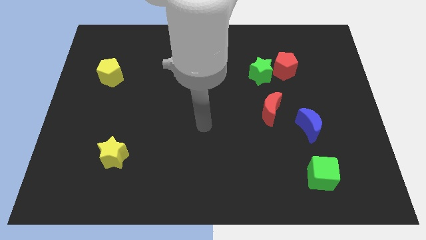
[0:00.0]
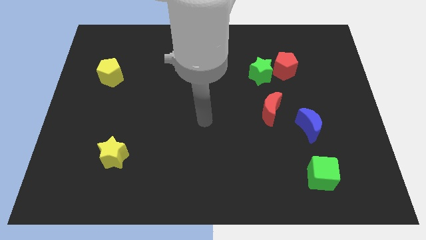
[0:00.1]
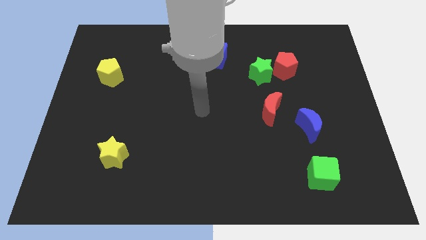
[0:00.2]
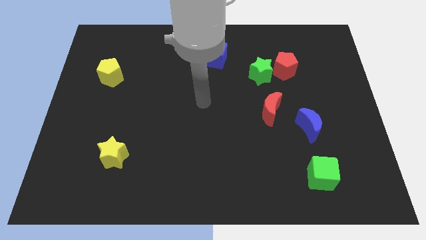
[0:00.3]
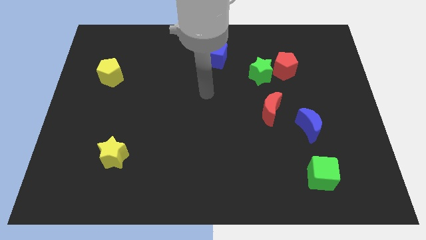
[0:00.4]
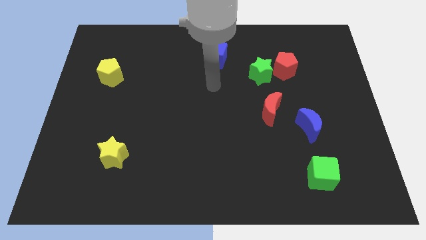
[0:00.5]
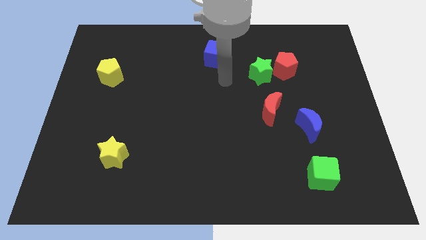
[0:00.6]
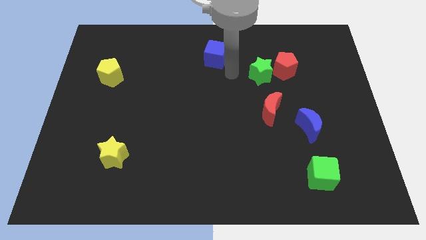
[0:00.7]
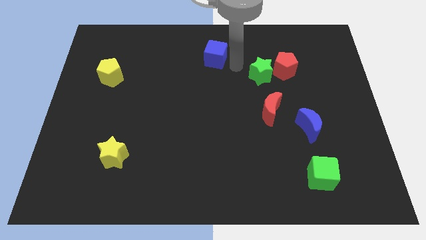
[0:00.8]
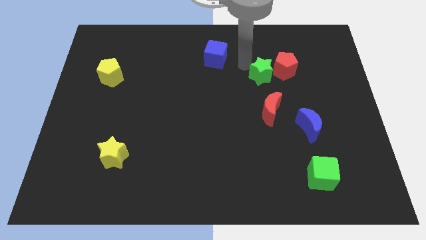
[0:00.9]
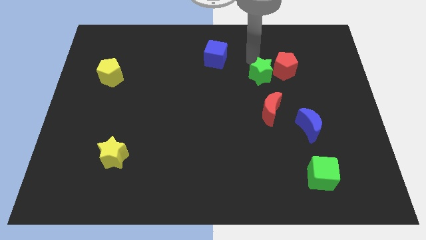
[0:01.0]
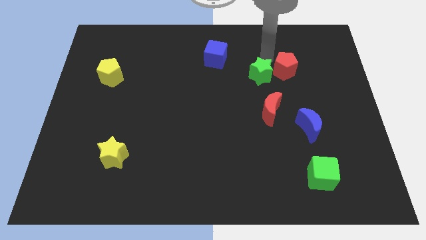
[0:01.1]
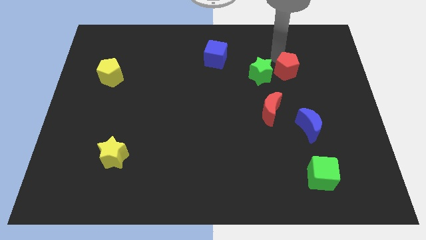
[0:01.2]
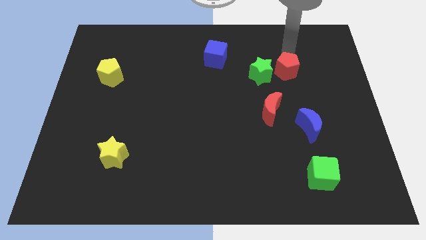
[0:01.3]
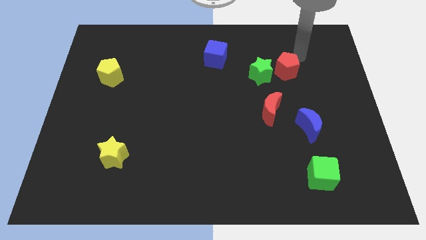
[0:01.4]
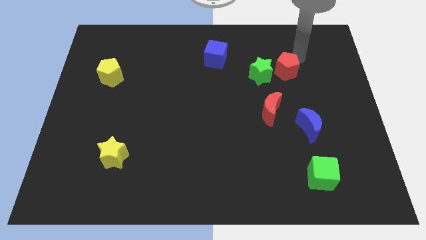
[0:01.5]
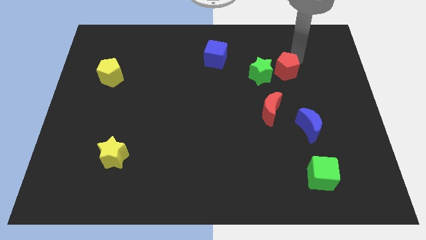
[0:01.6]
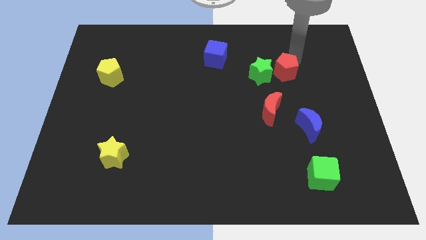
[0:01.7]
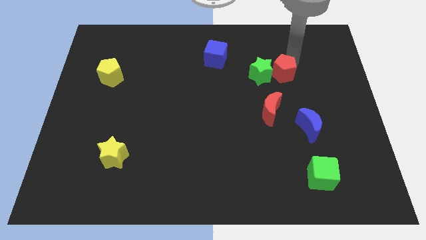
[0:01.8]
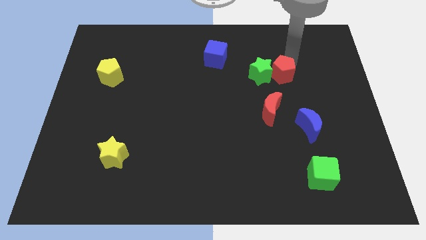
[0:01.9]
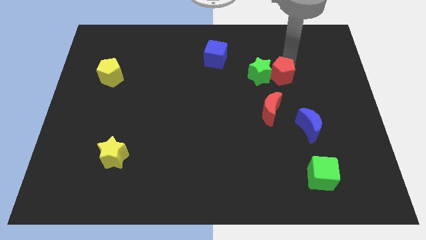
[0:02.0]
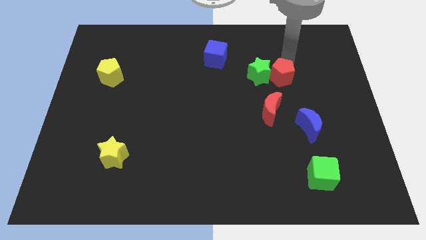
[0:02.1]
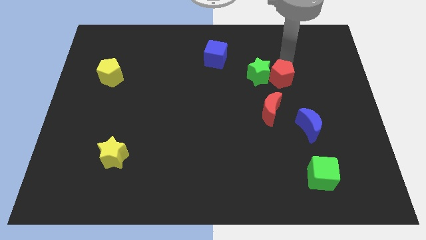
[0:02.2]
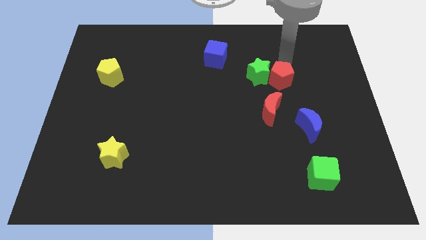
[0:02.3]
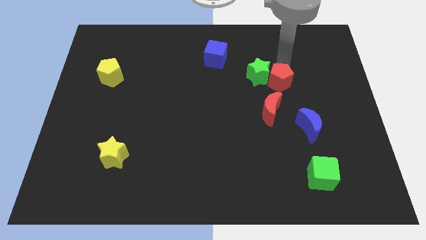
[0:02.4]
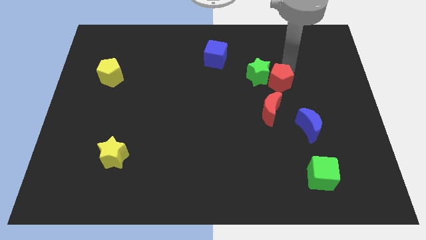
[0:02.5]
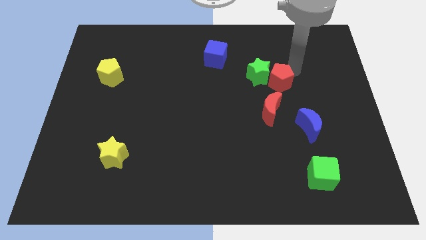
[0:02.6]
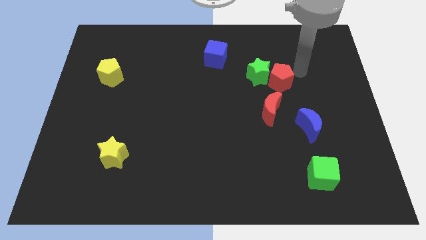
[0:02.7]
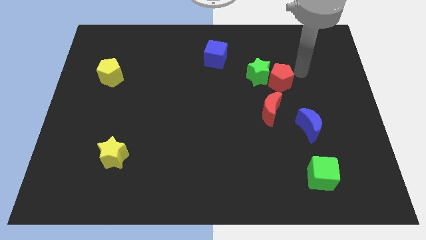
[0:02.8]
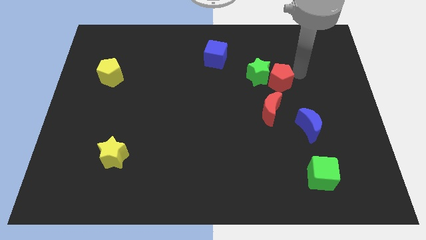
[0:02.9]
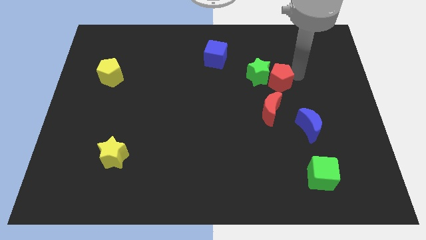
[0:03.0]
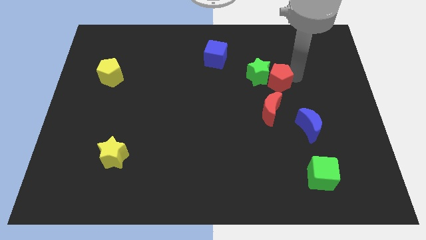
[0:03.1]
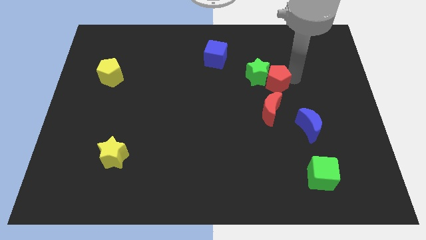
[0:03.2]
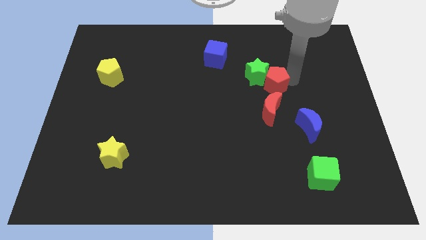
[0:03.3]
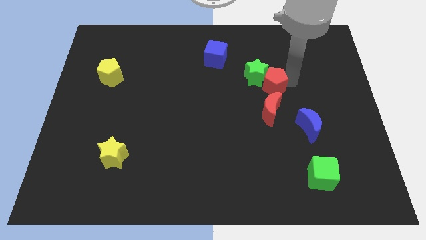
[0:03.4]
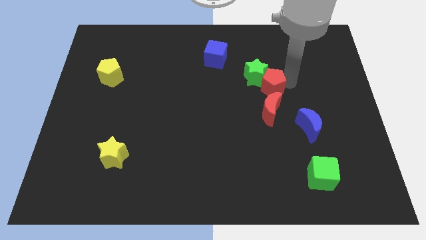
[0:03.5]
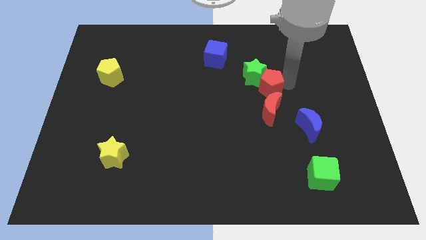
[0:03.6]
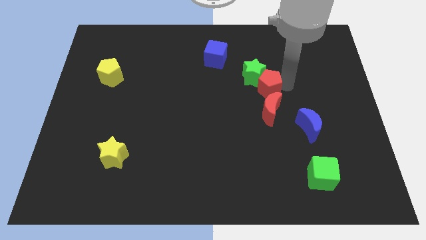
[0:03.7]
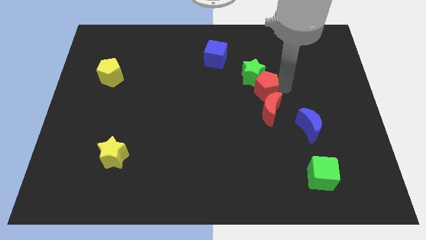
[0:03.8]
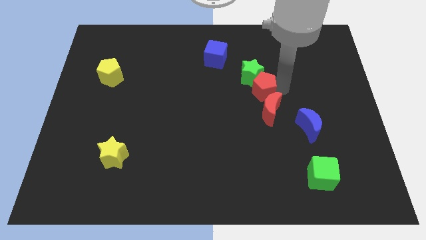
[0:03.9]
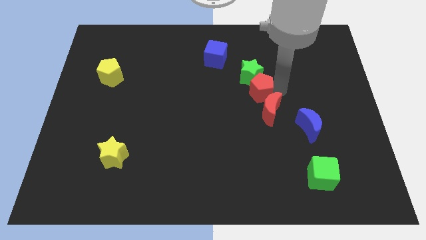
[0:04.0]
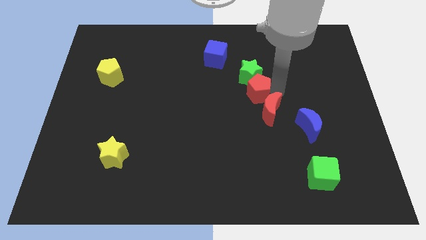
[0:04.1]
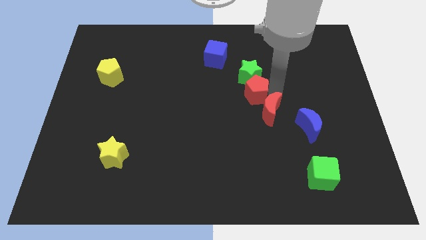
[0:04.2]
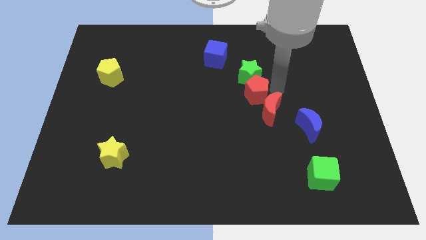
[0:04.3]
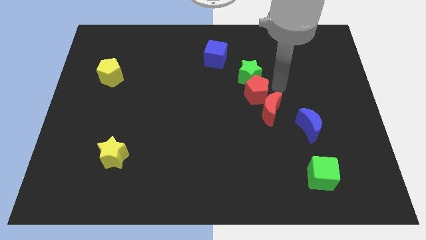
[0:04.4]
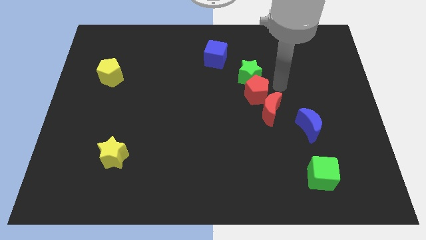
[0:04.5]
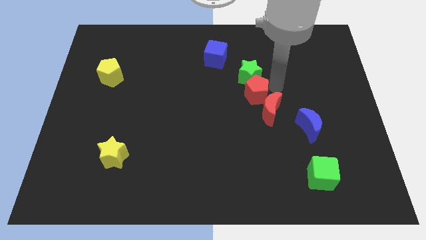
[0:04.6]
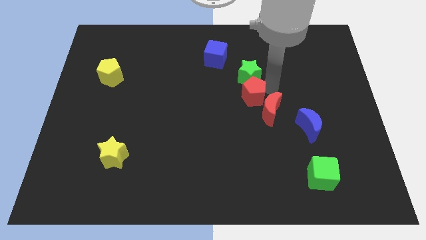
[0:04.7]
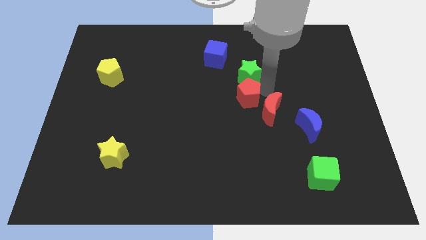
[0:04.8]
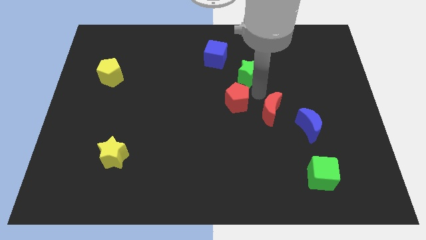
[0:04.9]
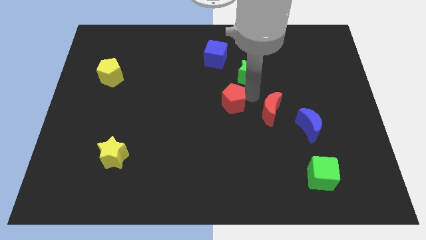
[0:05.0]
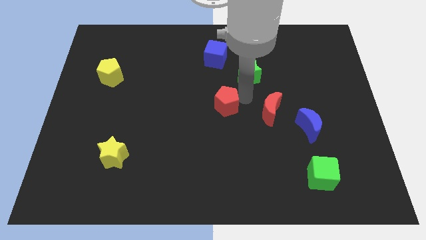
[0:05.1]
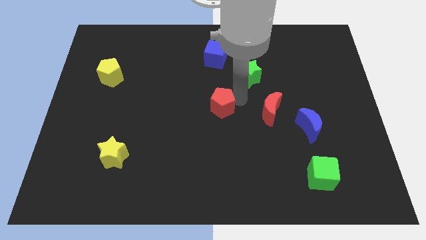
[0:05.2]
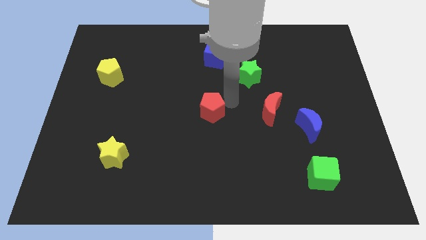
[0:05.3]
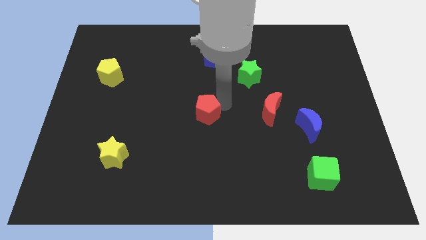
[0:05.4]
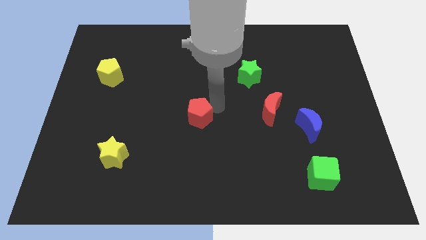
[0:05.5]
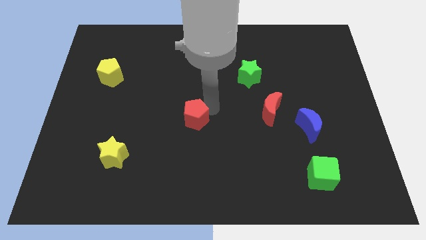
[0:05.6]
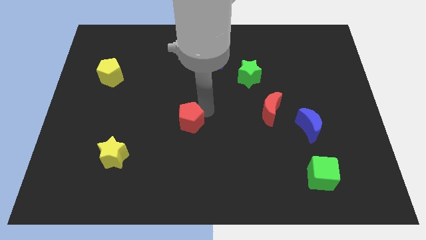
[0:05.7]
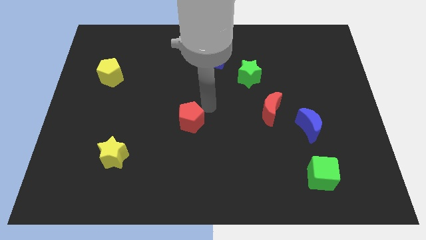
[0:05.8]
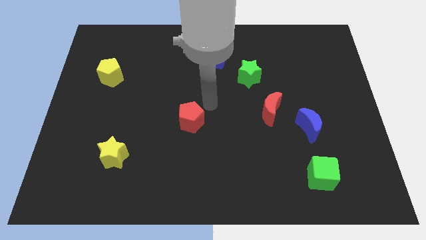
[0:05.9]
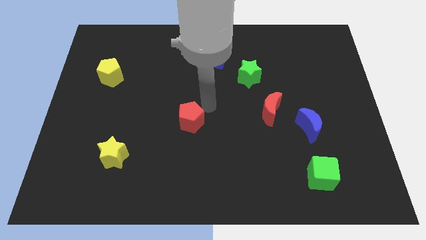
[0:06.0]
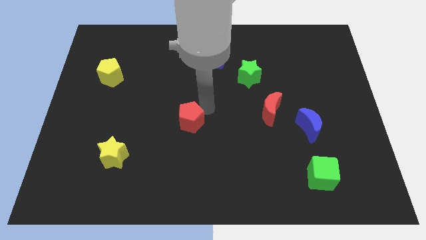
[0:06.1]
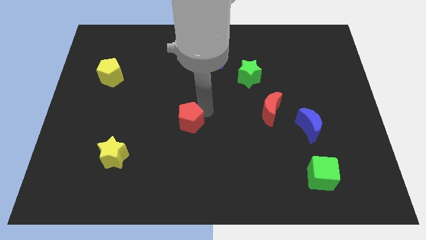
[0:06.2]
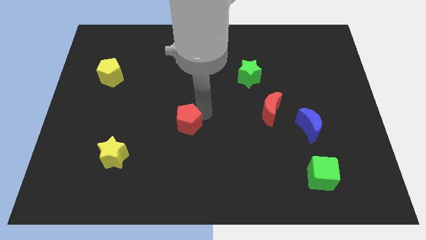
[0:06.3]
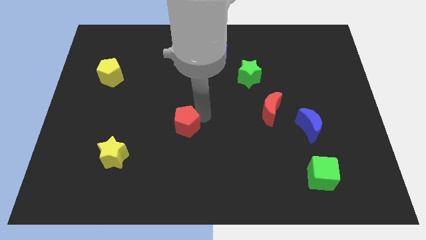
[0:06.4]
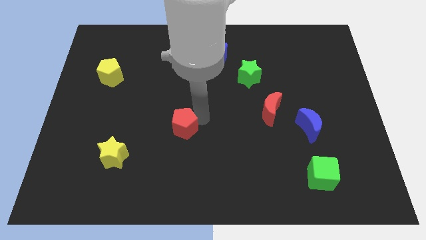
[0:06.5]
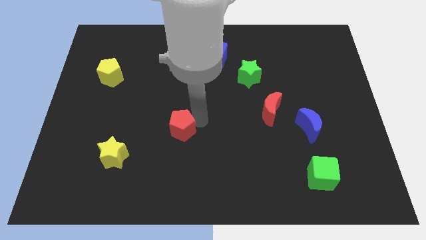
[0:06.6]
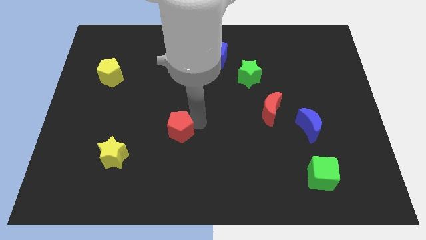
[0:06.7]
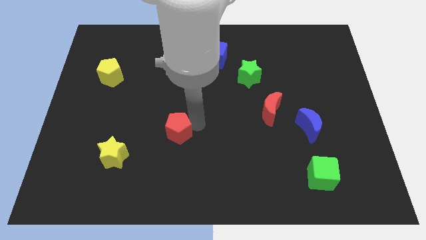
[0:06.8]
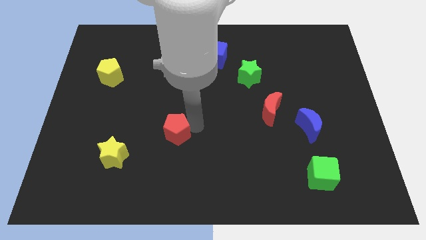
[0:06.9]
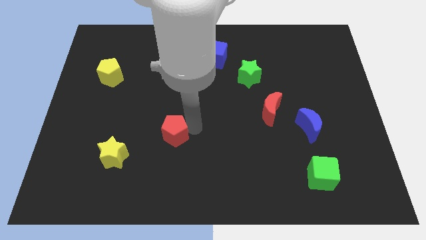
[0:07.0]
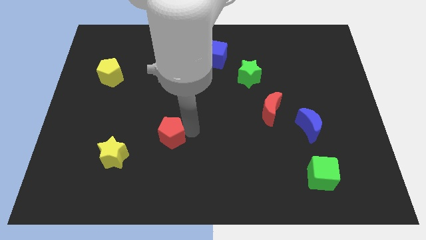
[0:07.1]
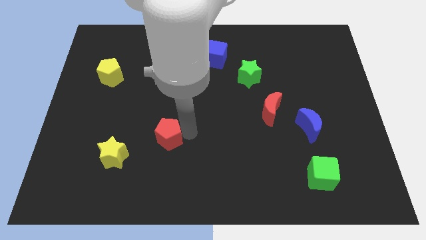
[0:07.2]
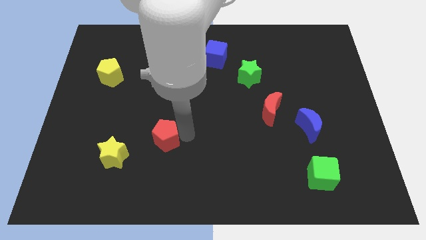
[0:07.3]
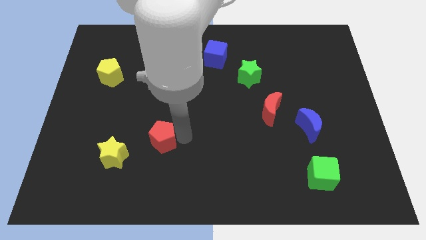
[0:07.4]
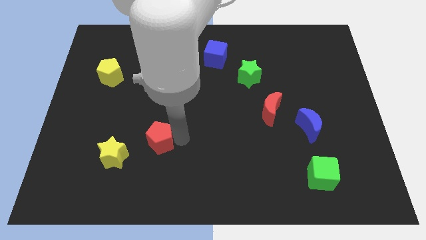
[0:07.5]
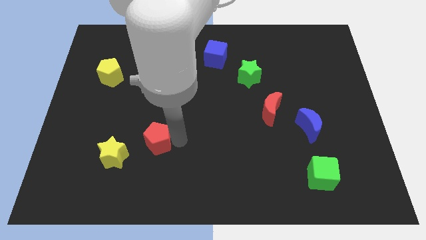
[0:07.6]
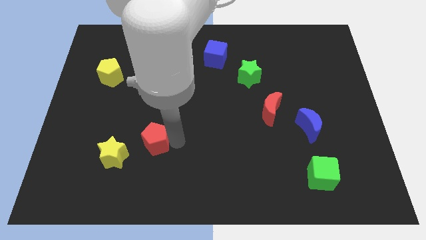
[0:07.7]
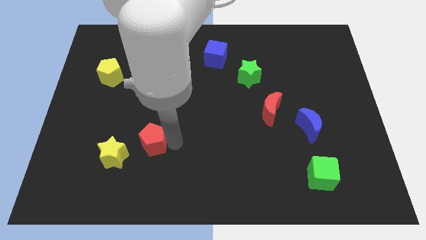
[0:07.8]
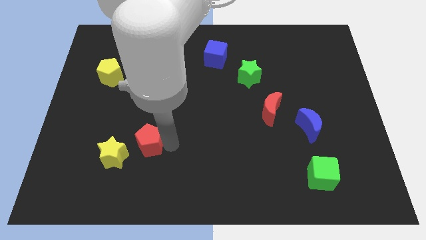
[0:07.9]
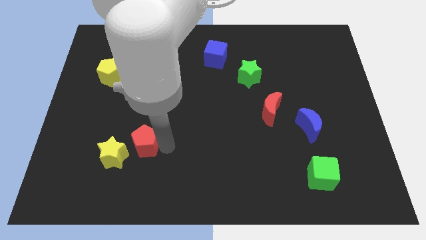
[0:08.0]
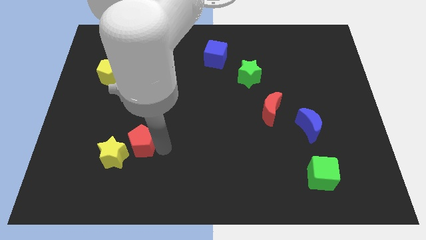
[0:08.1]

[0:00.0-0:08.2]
move the red pentagon next to the yellow star
